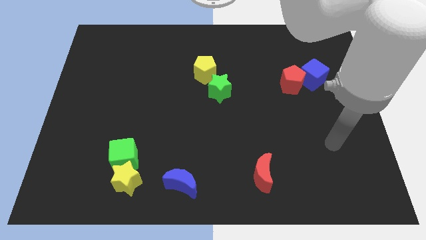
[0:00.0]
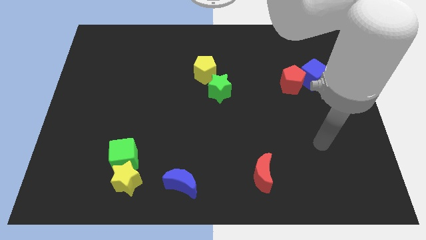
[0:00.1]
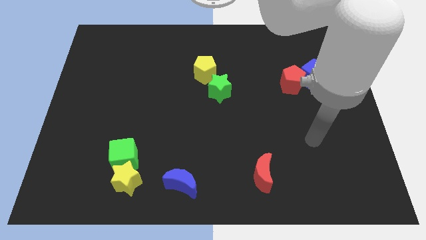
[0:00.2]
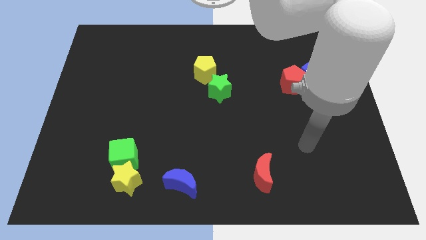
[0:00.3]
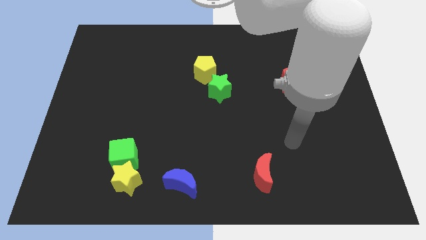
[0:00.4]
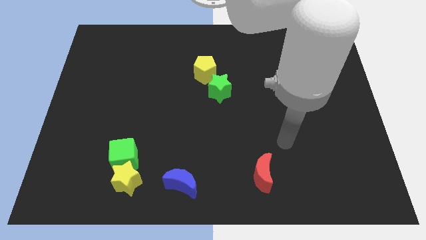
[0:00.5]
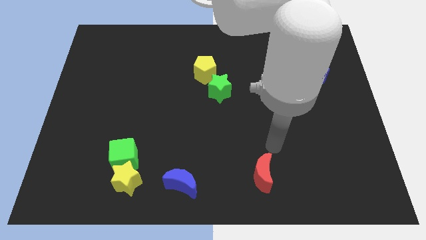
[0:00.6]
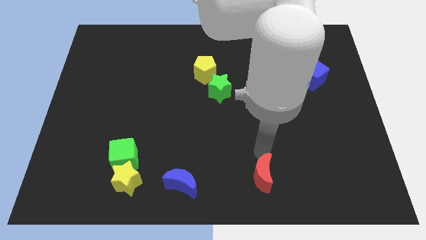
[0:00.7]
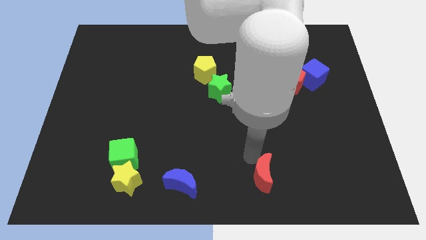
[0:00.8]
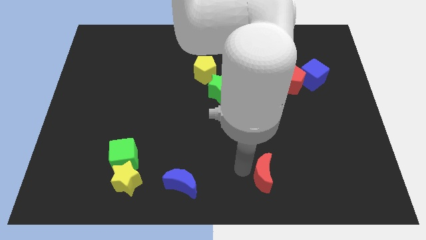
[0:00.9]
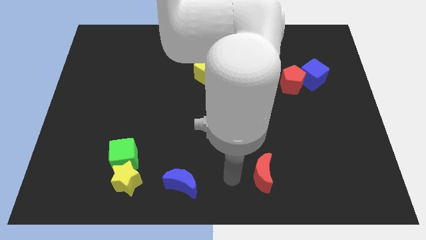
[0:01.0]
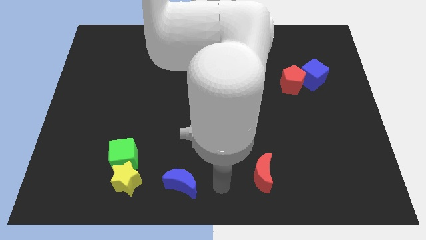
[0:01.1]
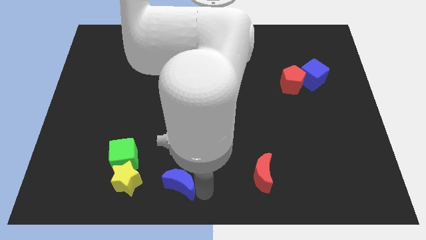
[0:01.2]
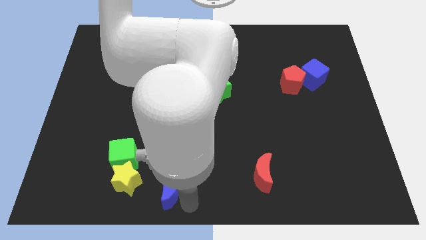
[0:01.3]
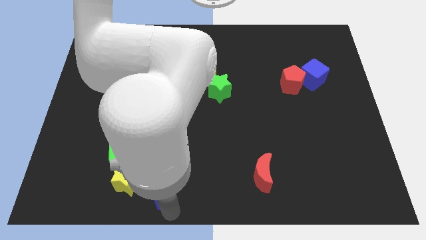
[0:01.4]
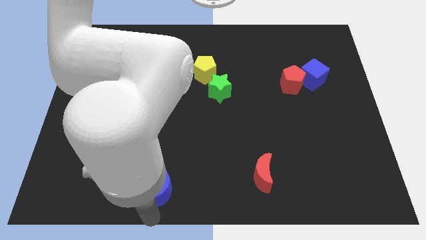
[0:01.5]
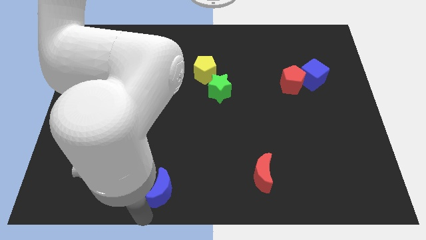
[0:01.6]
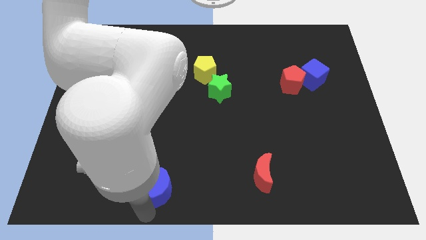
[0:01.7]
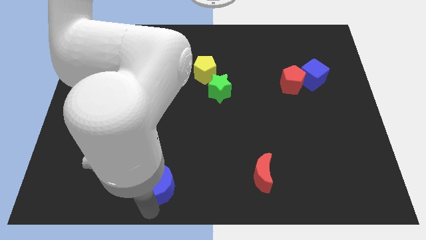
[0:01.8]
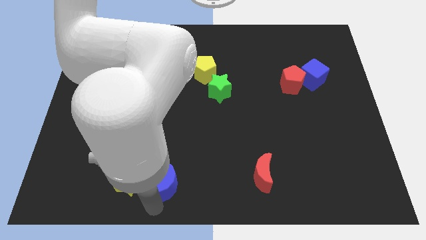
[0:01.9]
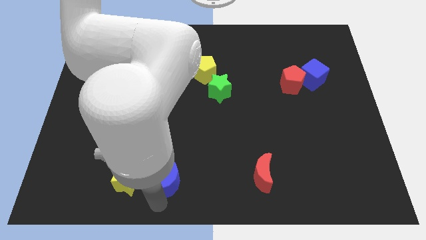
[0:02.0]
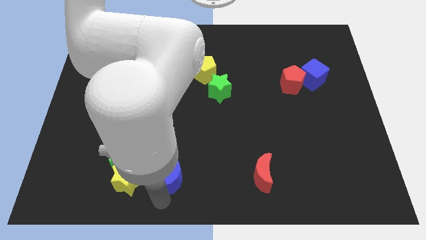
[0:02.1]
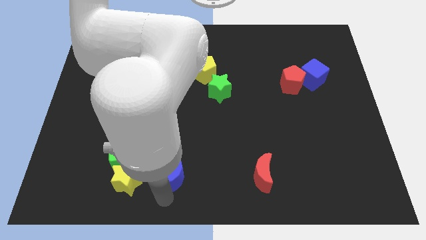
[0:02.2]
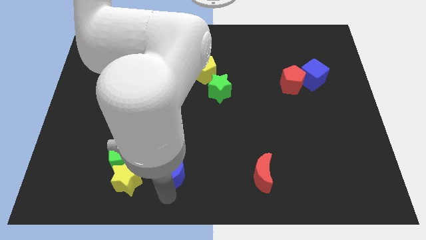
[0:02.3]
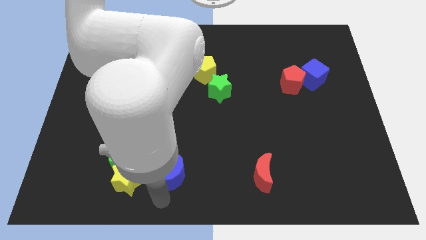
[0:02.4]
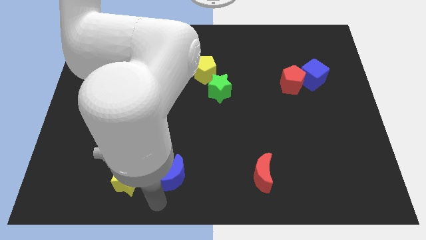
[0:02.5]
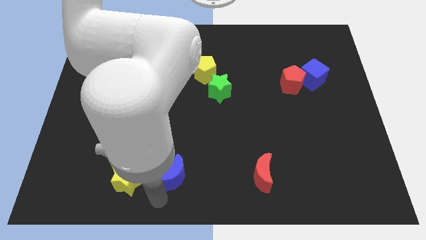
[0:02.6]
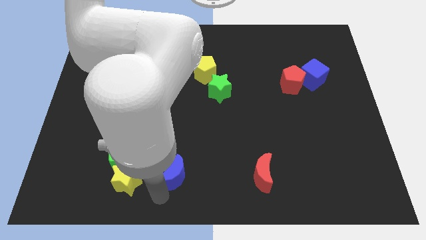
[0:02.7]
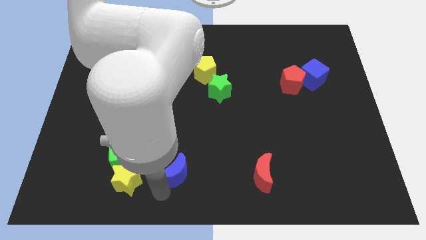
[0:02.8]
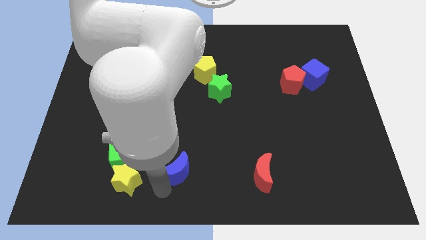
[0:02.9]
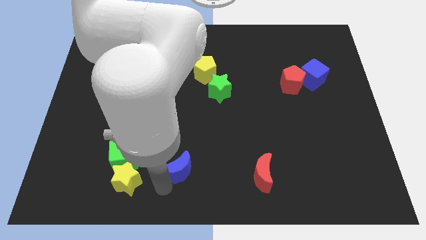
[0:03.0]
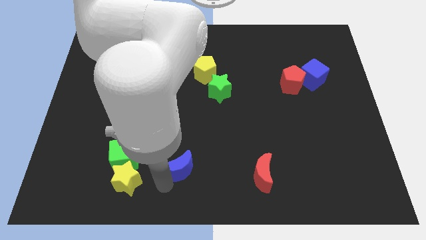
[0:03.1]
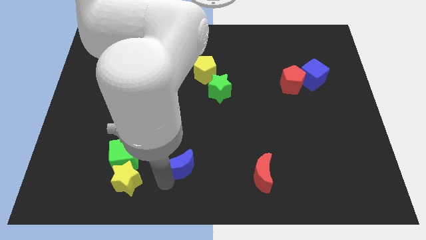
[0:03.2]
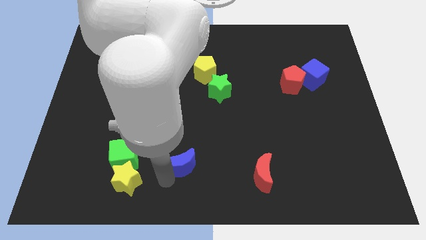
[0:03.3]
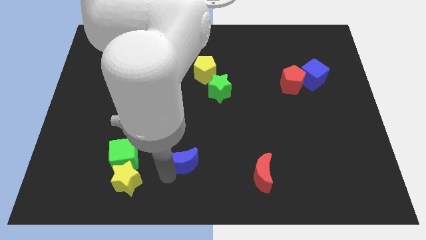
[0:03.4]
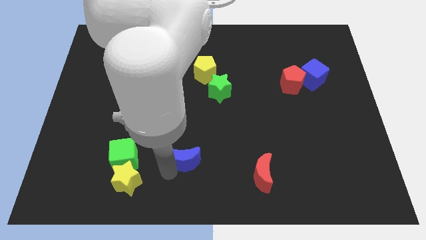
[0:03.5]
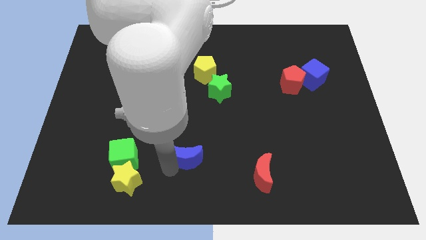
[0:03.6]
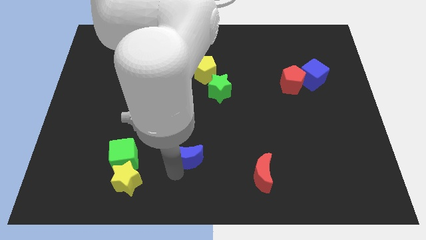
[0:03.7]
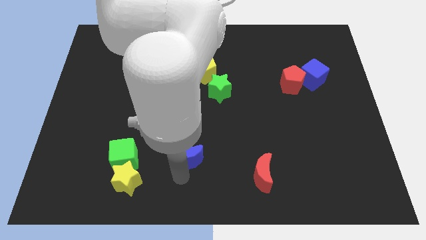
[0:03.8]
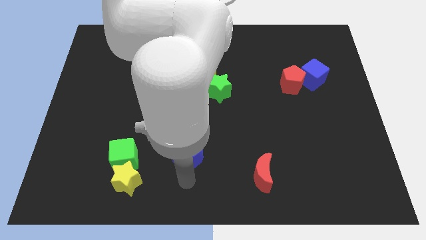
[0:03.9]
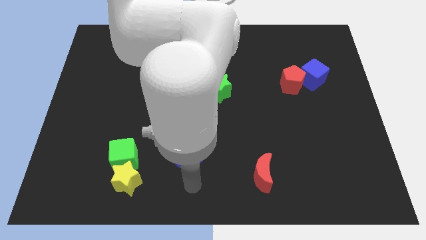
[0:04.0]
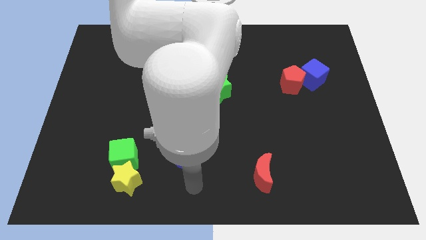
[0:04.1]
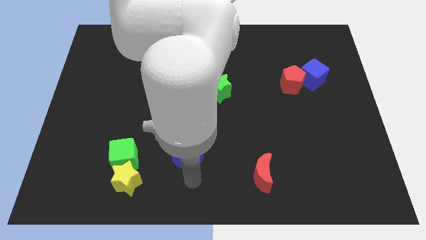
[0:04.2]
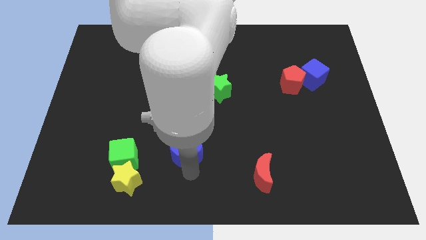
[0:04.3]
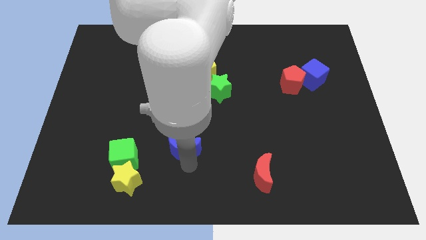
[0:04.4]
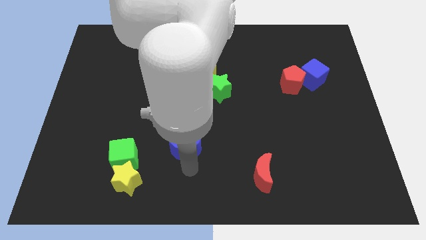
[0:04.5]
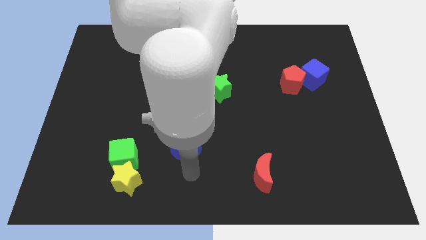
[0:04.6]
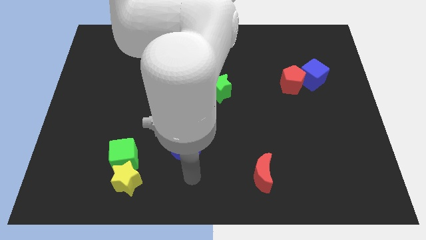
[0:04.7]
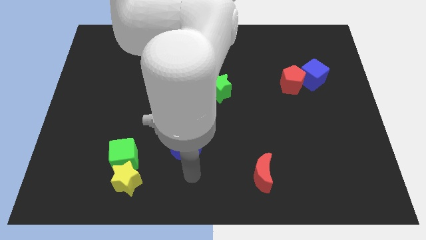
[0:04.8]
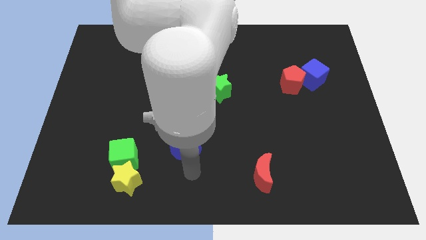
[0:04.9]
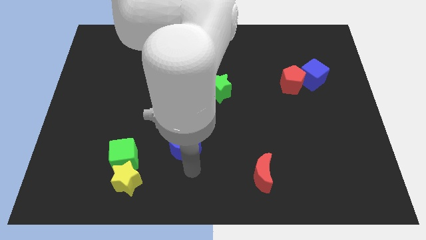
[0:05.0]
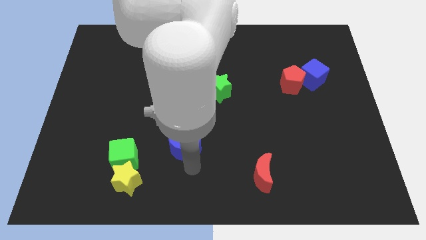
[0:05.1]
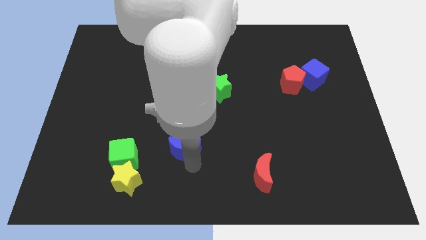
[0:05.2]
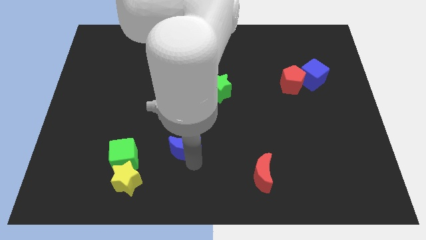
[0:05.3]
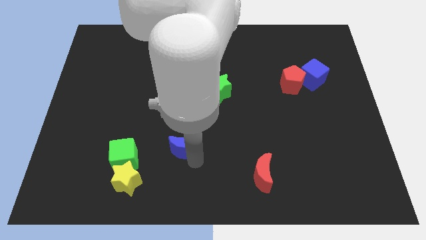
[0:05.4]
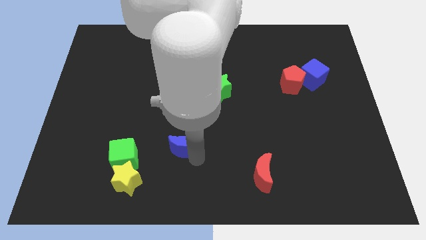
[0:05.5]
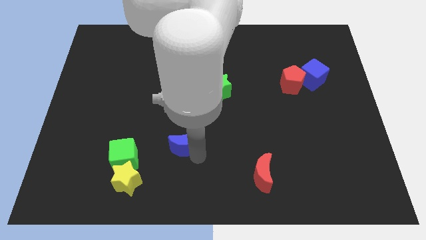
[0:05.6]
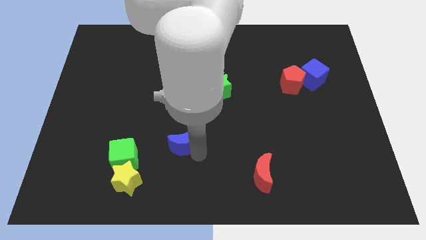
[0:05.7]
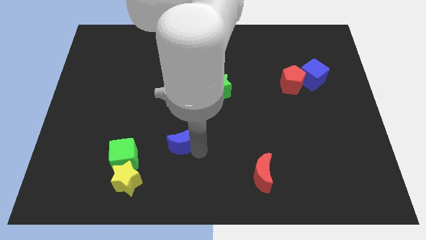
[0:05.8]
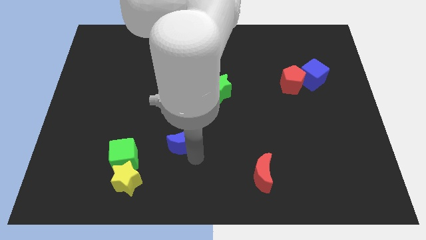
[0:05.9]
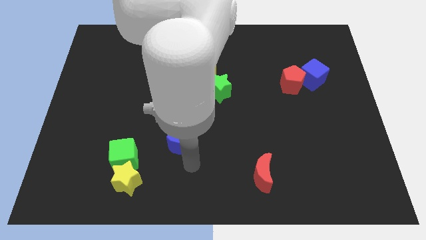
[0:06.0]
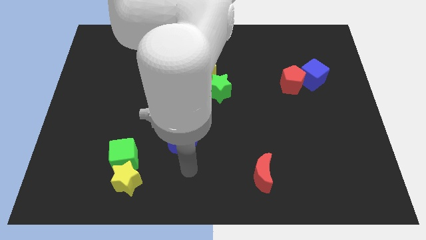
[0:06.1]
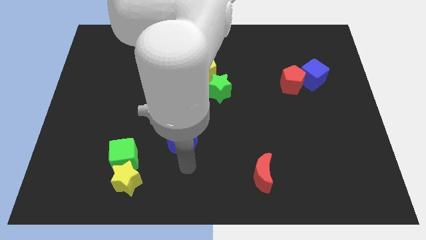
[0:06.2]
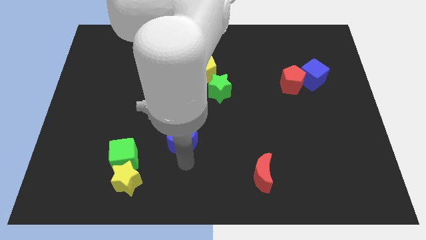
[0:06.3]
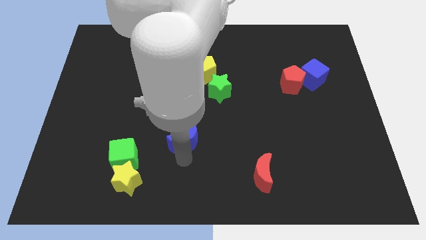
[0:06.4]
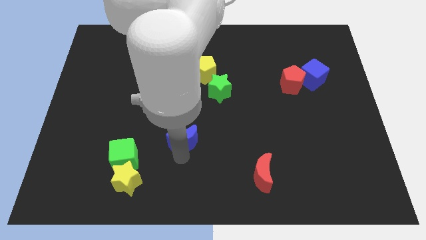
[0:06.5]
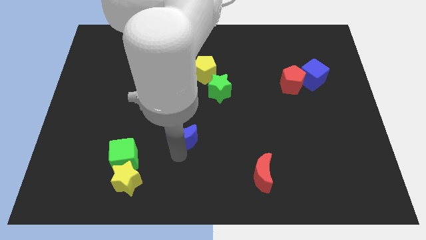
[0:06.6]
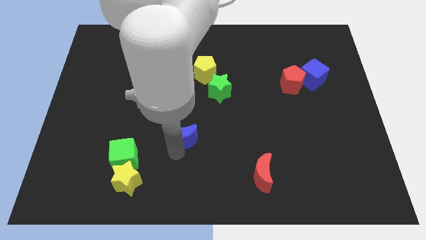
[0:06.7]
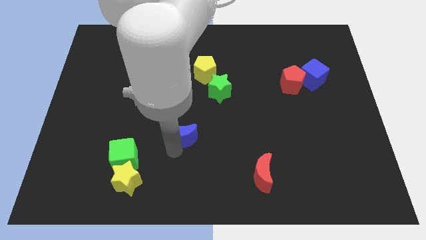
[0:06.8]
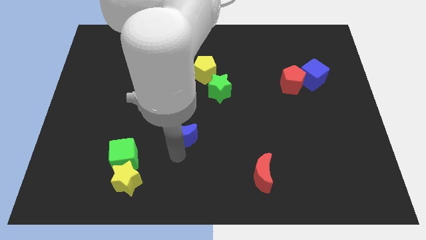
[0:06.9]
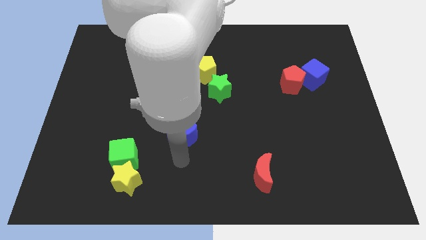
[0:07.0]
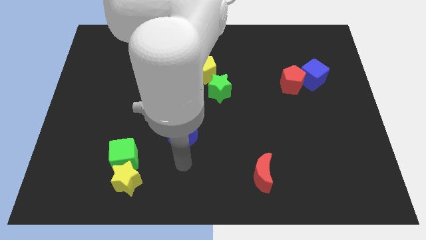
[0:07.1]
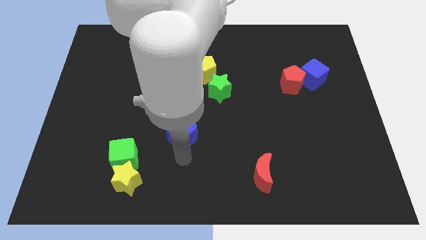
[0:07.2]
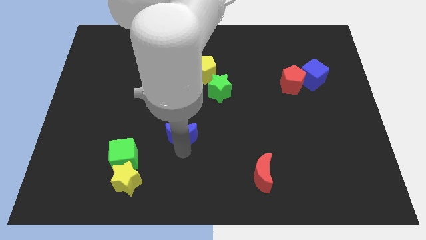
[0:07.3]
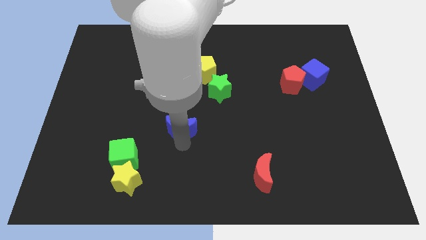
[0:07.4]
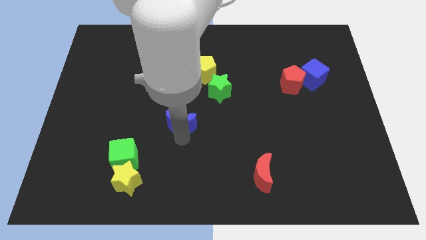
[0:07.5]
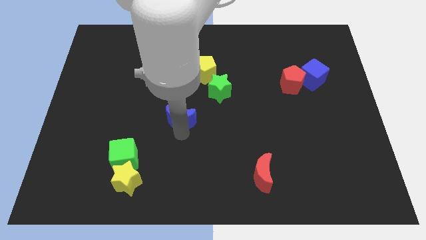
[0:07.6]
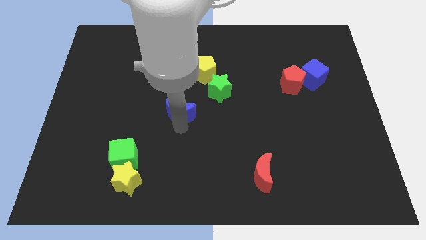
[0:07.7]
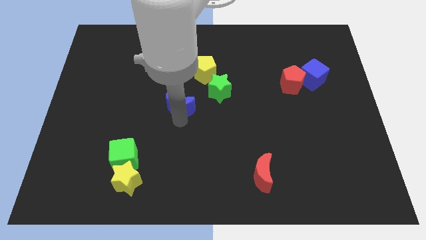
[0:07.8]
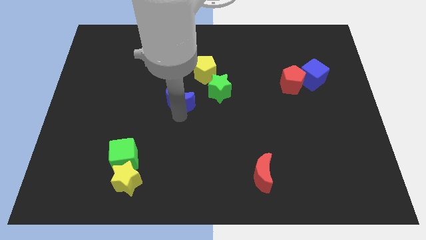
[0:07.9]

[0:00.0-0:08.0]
push the blue moon up
